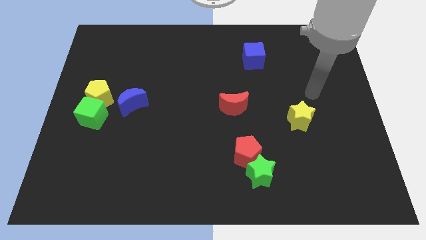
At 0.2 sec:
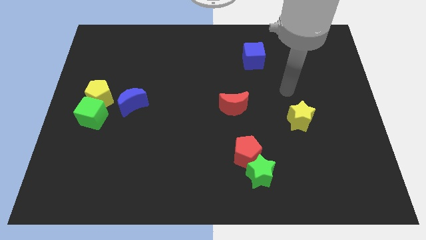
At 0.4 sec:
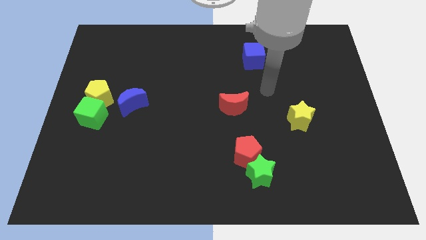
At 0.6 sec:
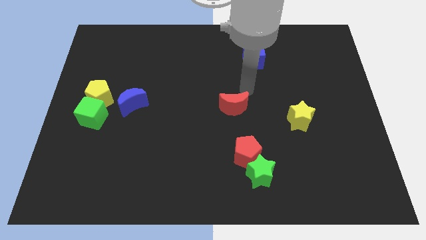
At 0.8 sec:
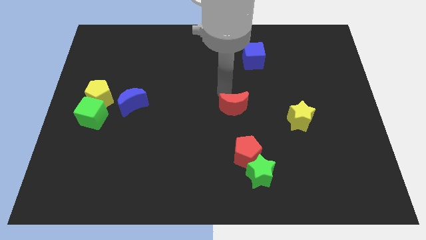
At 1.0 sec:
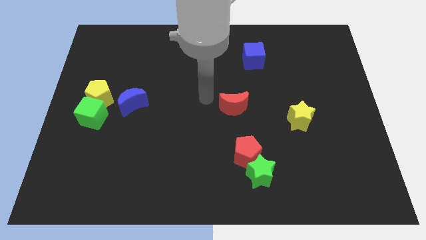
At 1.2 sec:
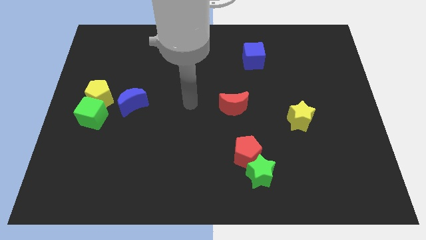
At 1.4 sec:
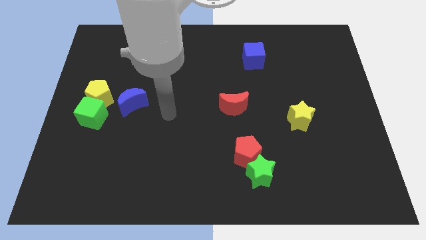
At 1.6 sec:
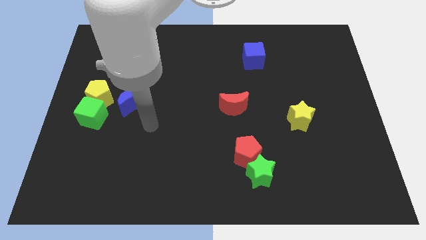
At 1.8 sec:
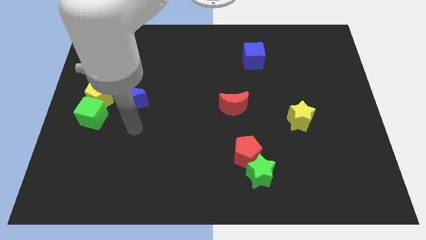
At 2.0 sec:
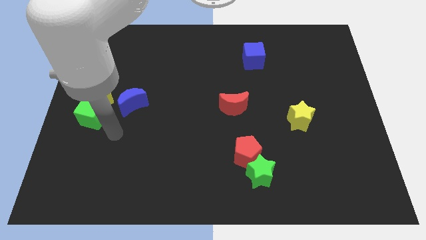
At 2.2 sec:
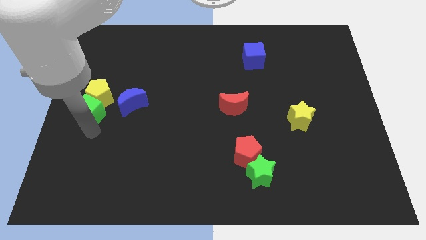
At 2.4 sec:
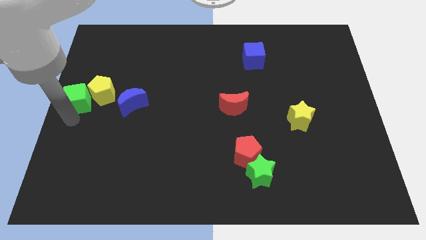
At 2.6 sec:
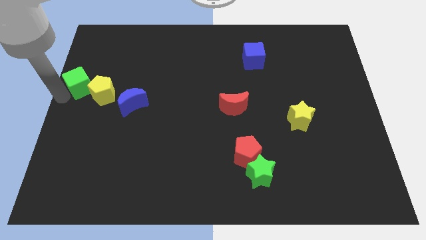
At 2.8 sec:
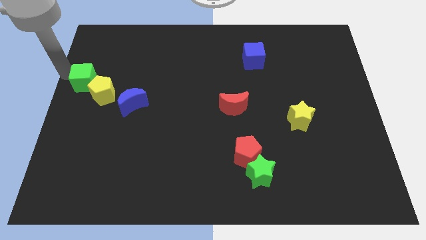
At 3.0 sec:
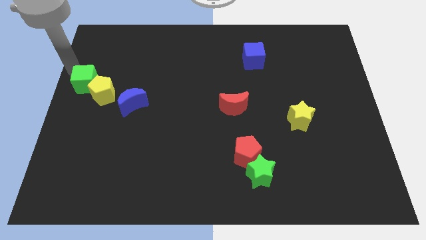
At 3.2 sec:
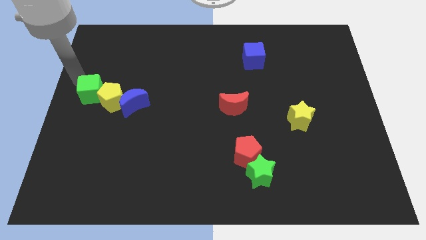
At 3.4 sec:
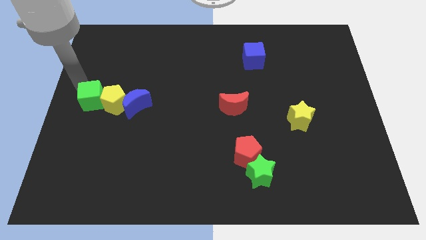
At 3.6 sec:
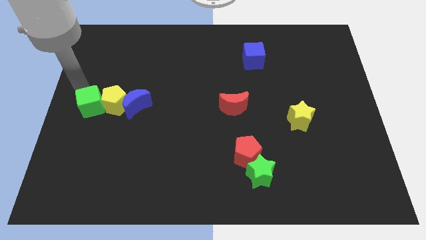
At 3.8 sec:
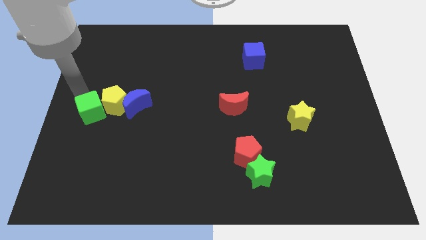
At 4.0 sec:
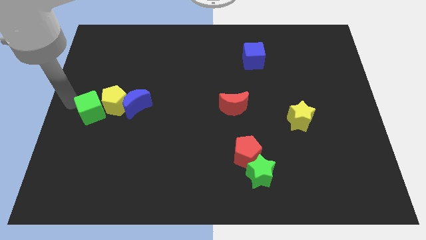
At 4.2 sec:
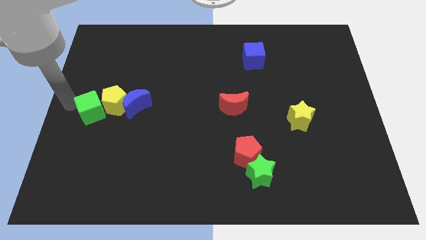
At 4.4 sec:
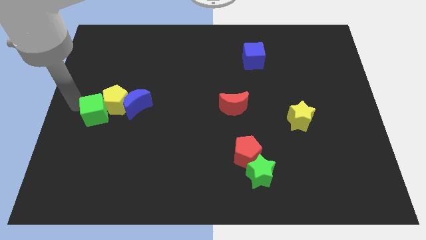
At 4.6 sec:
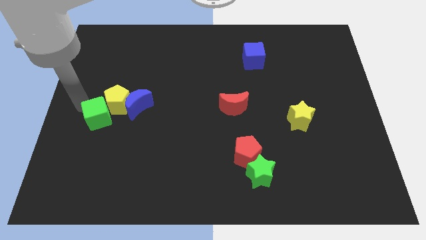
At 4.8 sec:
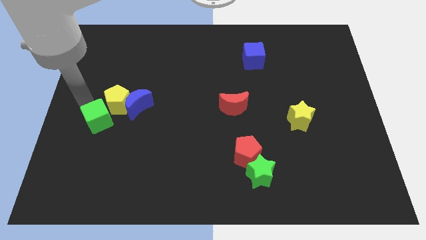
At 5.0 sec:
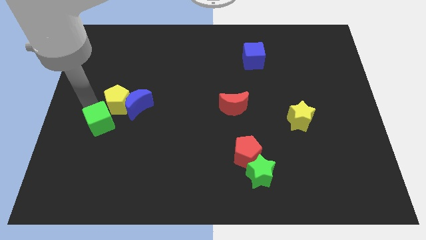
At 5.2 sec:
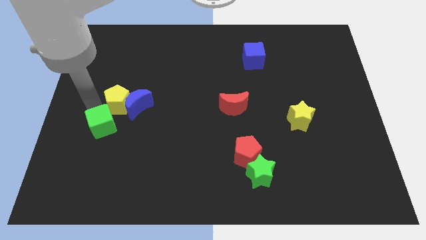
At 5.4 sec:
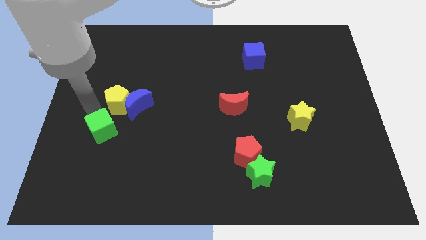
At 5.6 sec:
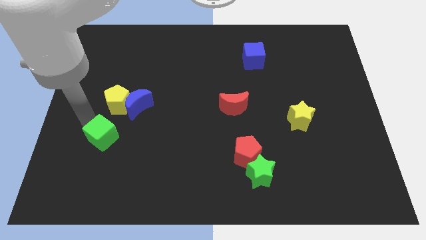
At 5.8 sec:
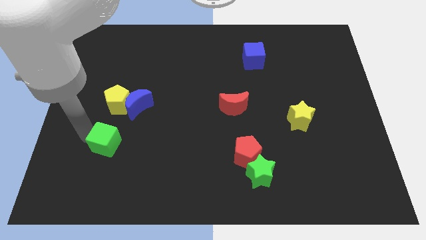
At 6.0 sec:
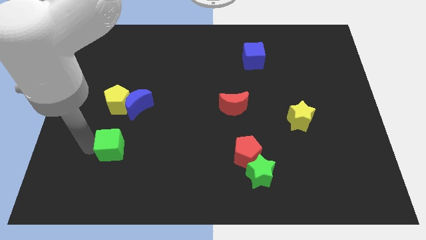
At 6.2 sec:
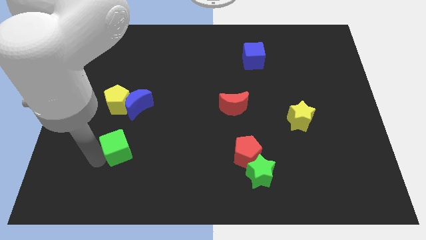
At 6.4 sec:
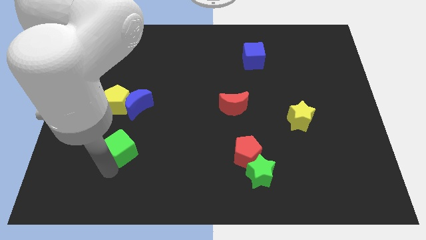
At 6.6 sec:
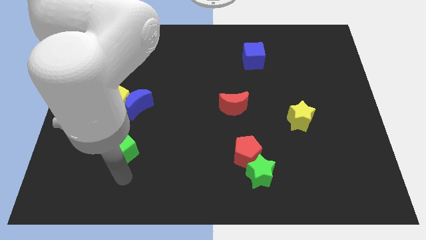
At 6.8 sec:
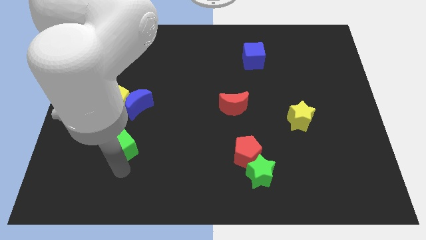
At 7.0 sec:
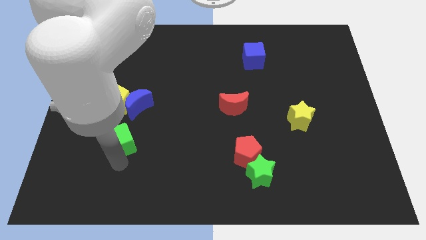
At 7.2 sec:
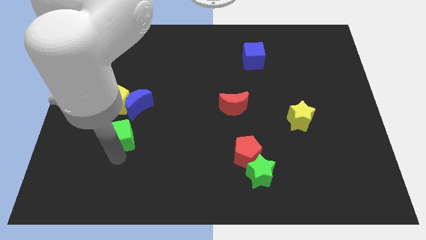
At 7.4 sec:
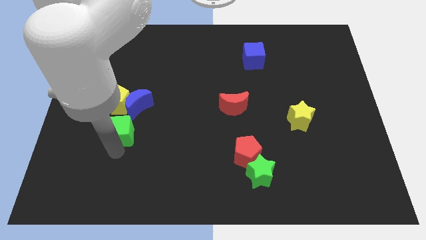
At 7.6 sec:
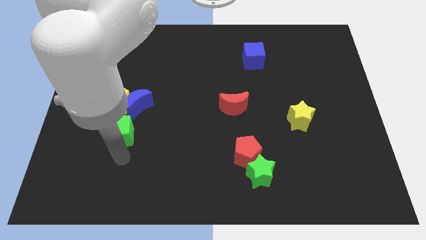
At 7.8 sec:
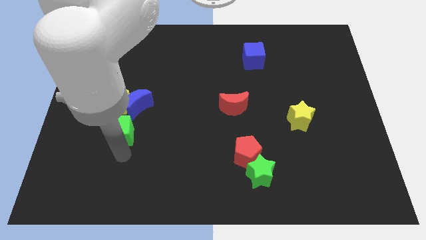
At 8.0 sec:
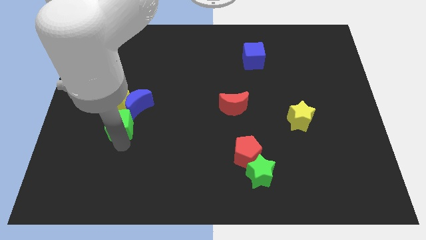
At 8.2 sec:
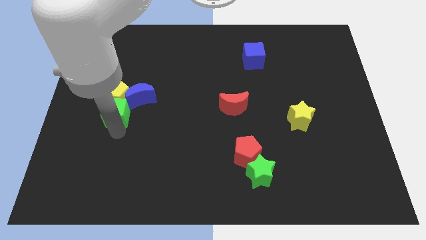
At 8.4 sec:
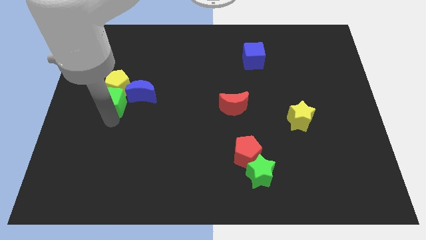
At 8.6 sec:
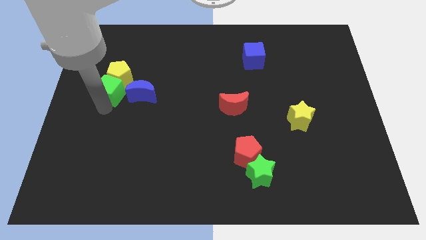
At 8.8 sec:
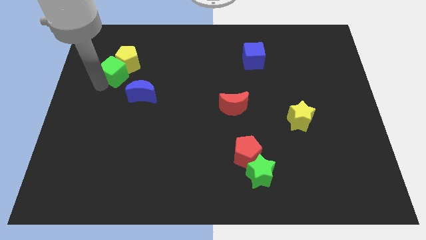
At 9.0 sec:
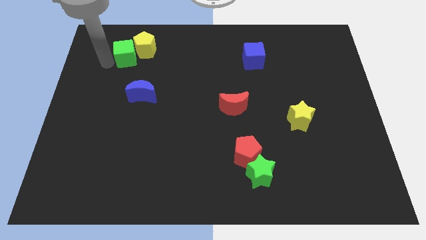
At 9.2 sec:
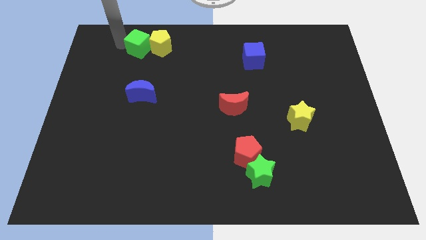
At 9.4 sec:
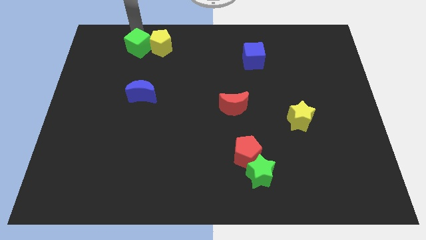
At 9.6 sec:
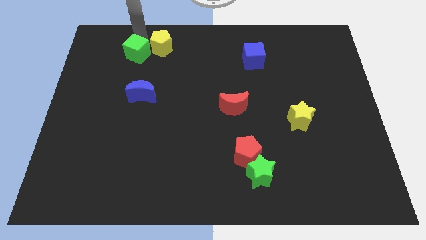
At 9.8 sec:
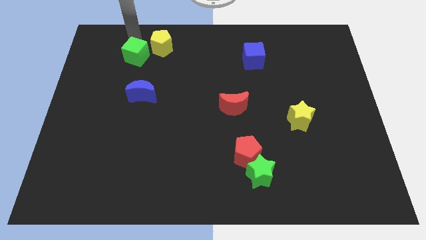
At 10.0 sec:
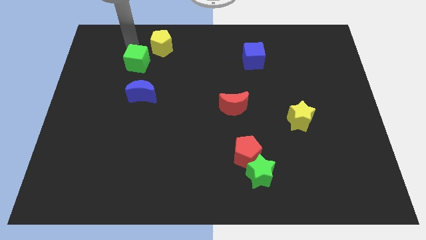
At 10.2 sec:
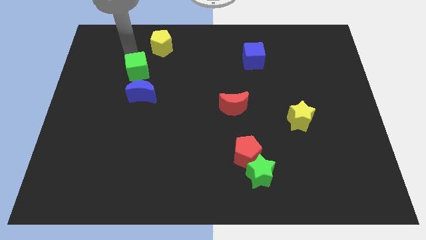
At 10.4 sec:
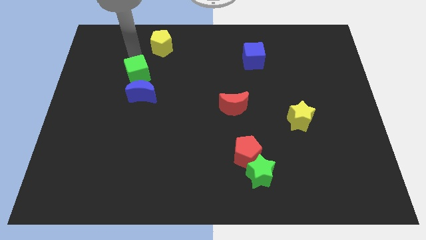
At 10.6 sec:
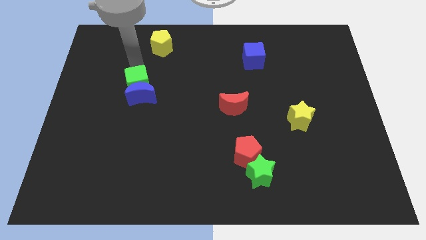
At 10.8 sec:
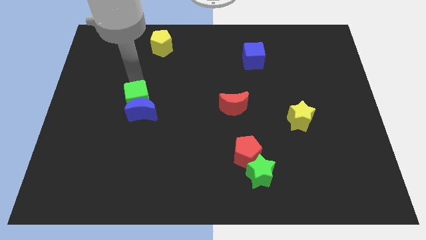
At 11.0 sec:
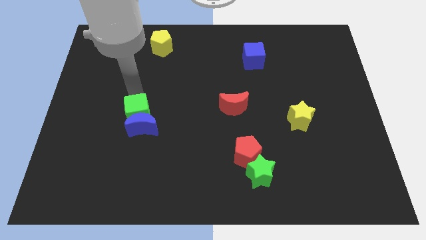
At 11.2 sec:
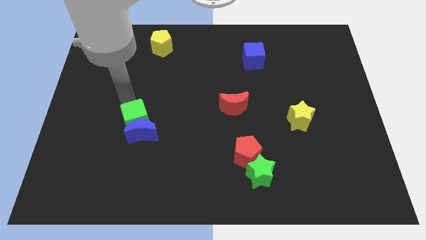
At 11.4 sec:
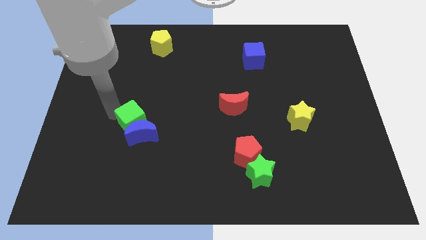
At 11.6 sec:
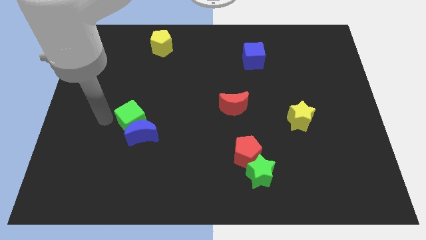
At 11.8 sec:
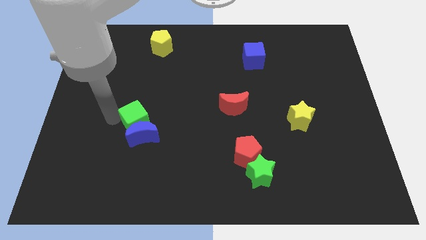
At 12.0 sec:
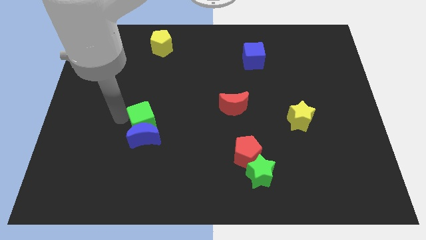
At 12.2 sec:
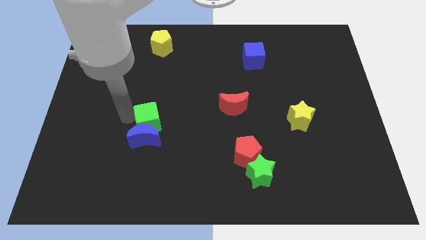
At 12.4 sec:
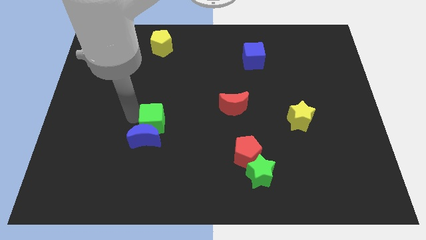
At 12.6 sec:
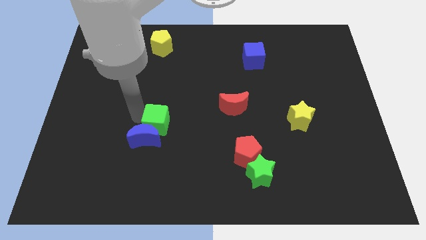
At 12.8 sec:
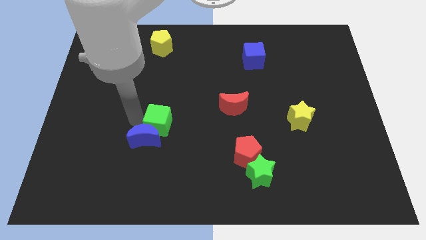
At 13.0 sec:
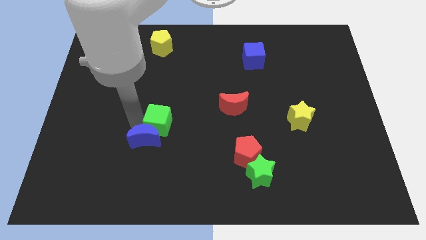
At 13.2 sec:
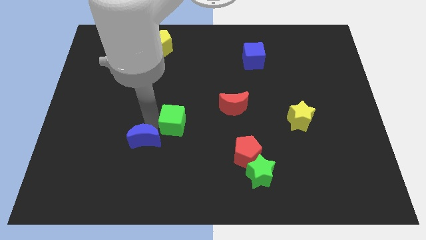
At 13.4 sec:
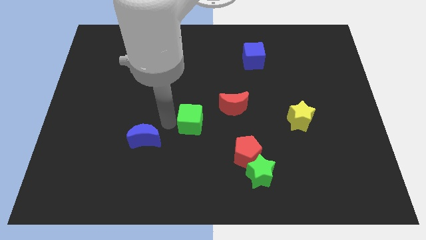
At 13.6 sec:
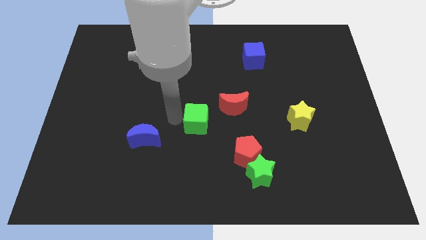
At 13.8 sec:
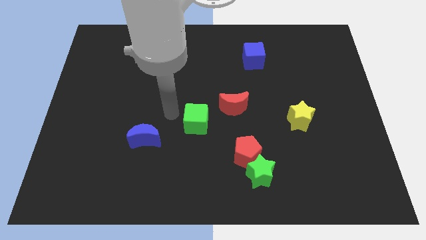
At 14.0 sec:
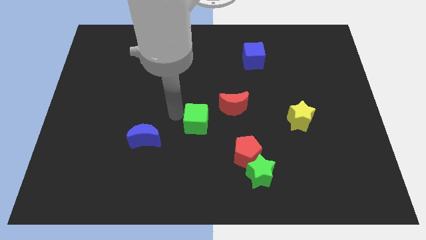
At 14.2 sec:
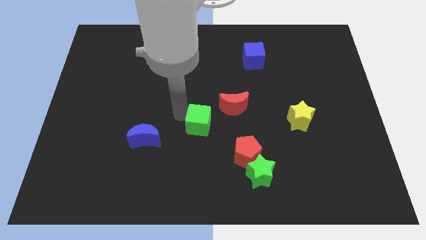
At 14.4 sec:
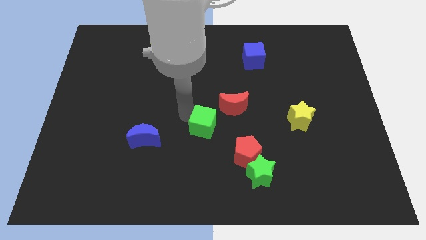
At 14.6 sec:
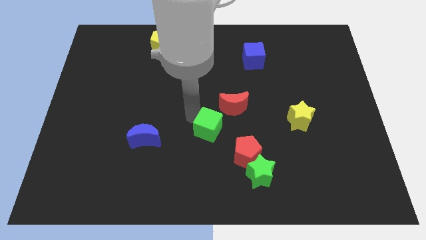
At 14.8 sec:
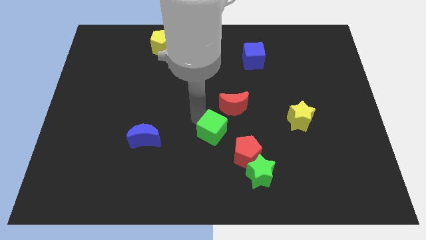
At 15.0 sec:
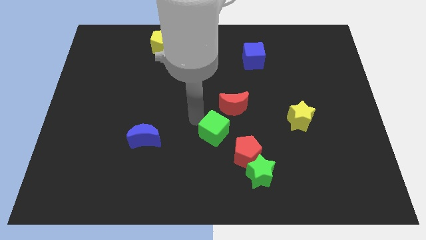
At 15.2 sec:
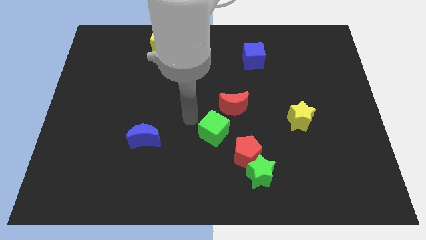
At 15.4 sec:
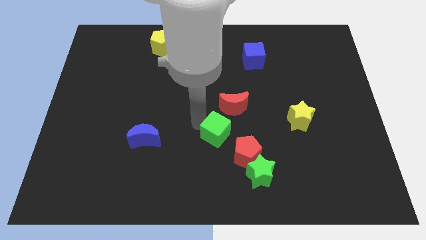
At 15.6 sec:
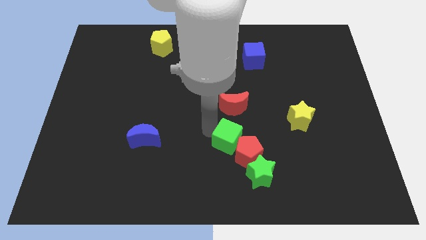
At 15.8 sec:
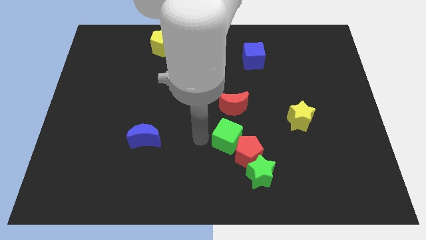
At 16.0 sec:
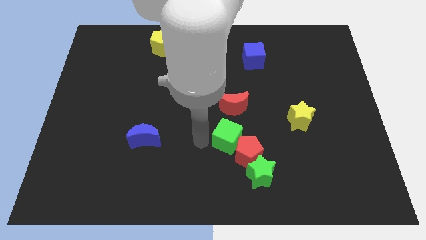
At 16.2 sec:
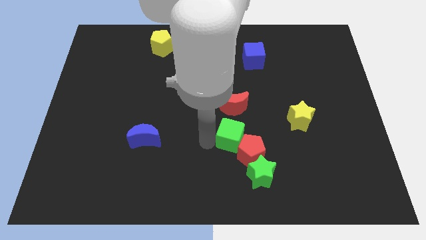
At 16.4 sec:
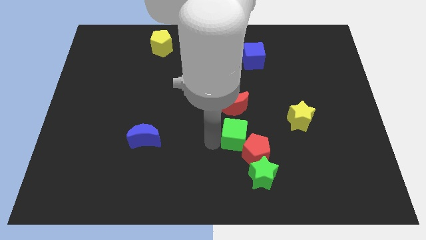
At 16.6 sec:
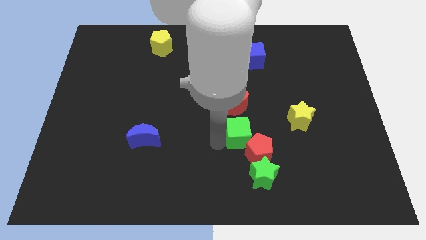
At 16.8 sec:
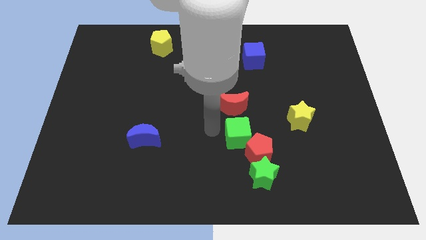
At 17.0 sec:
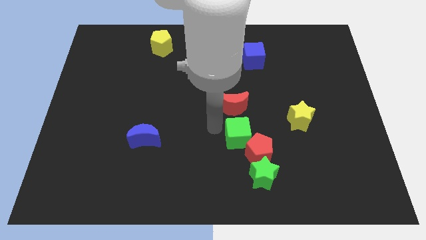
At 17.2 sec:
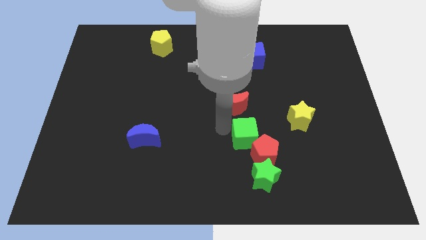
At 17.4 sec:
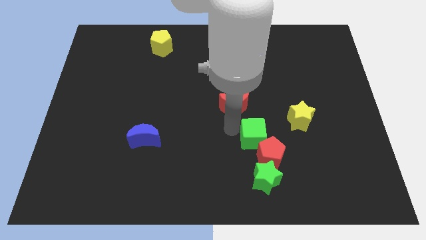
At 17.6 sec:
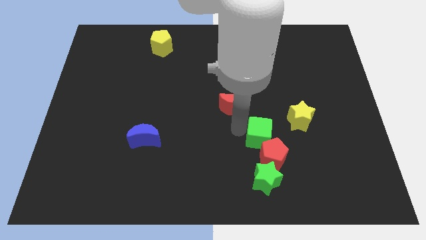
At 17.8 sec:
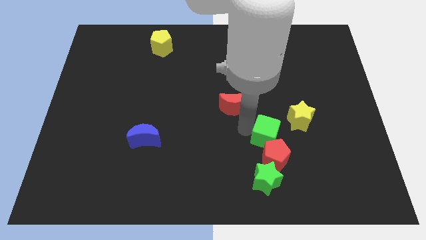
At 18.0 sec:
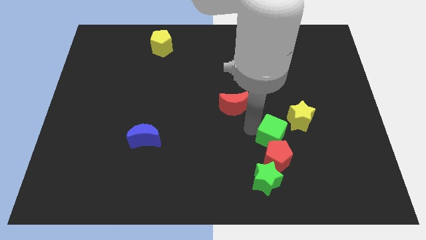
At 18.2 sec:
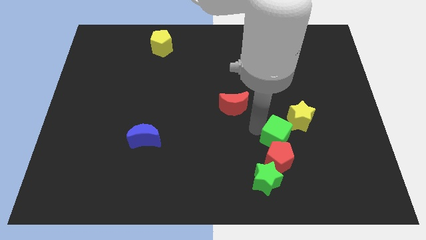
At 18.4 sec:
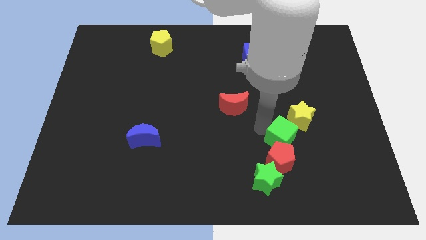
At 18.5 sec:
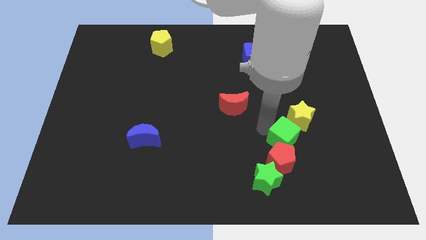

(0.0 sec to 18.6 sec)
move the green cube to the bottom of the yellow star
